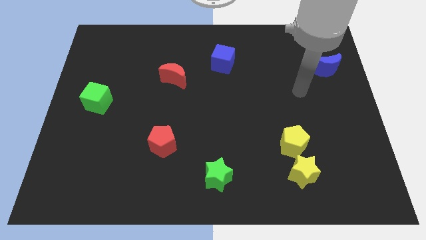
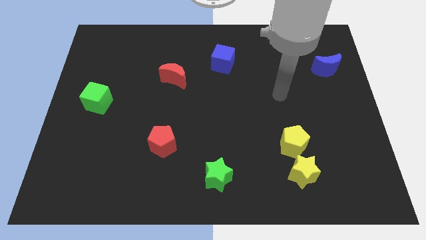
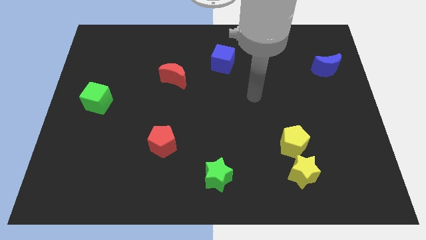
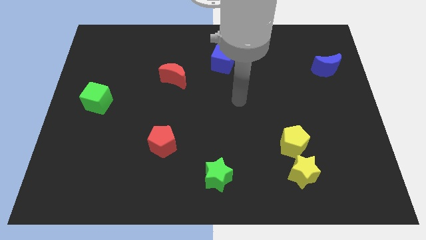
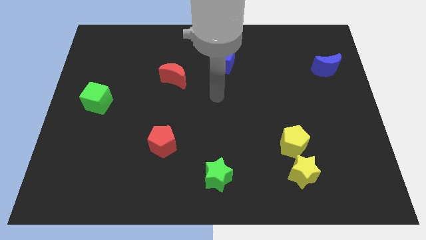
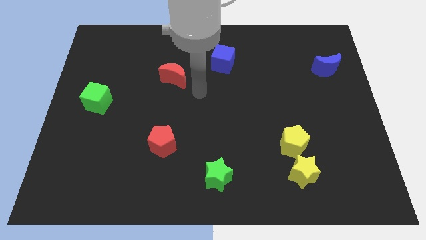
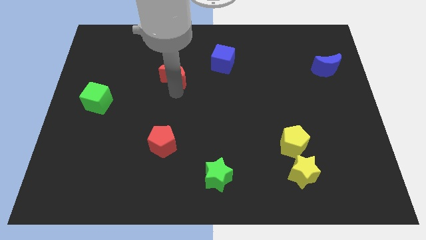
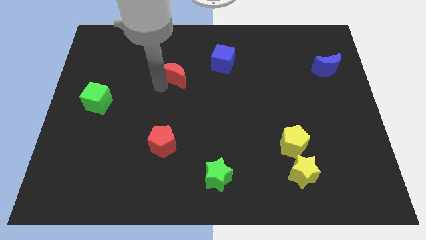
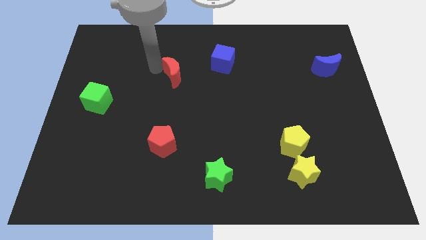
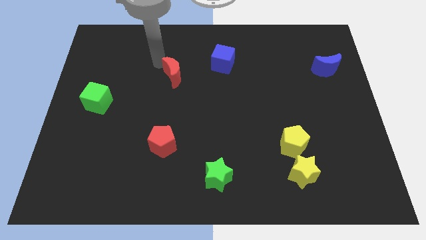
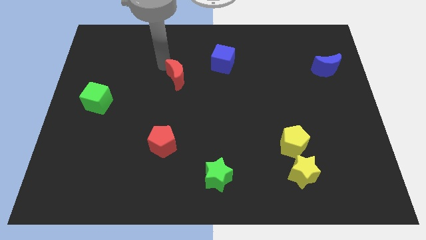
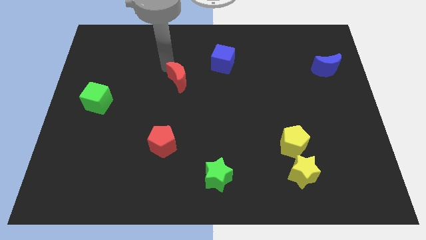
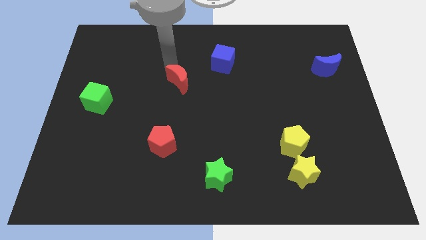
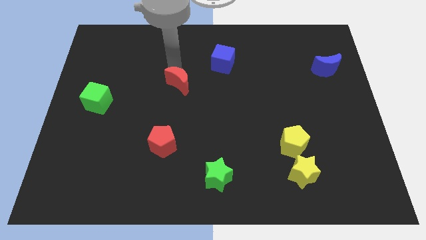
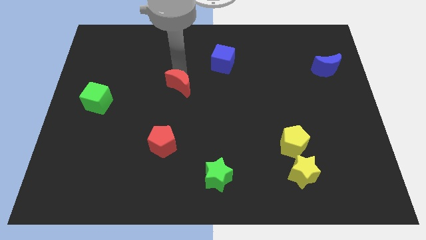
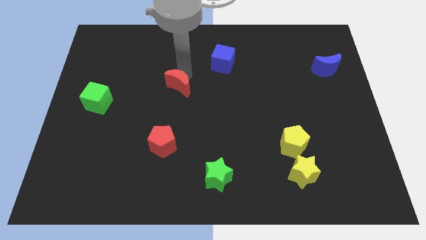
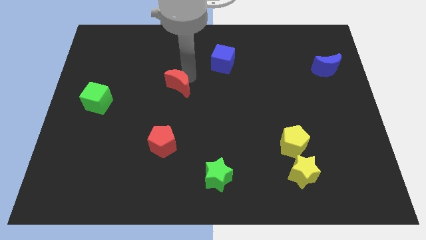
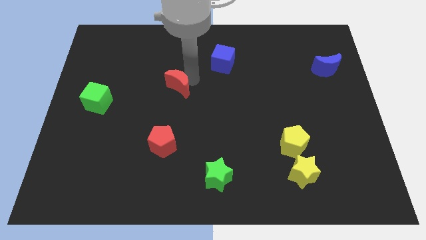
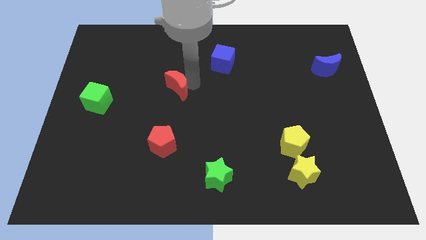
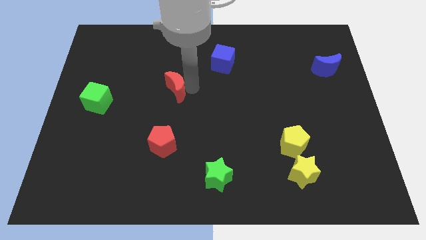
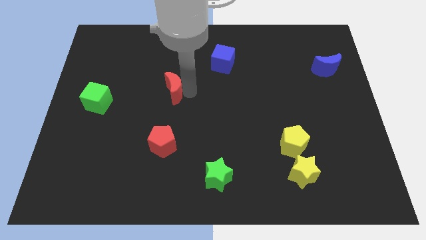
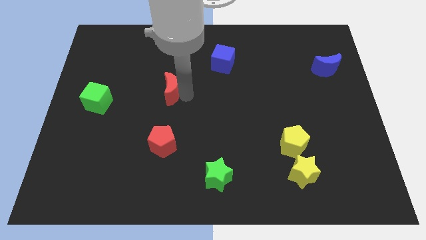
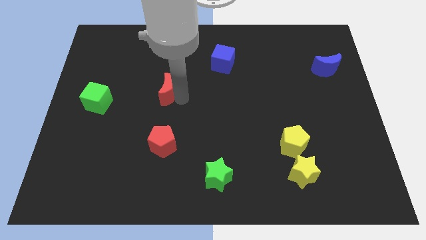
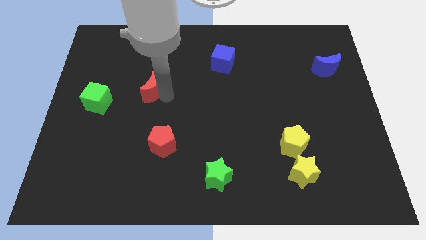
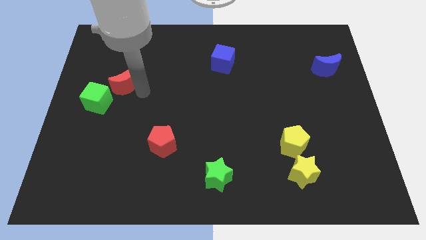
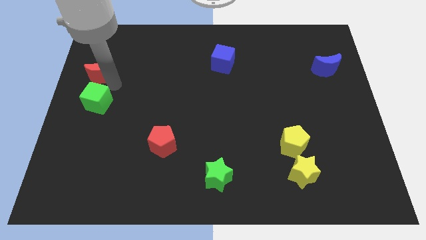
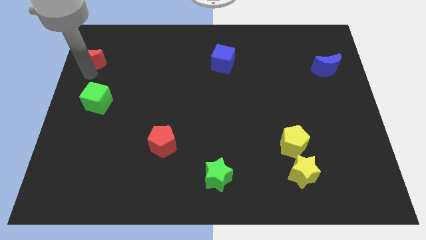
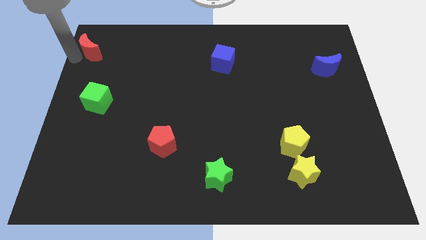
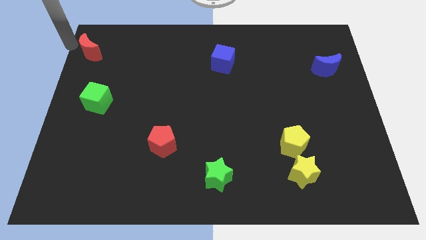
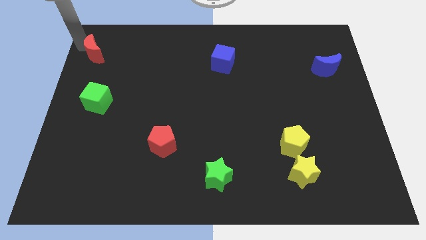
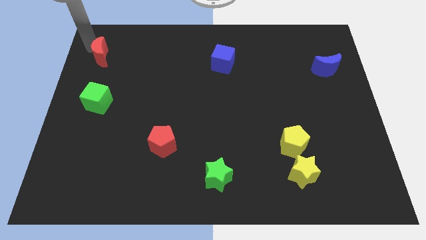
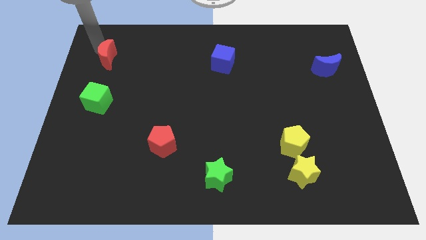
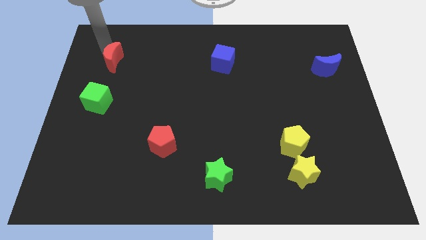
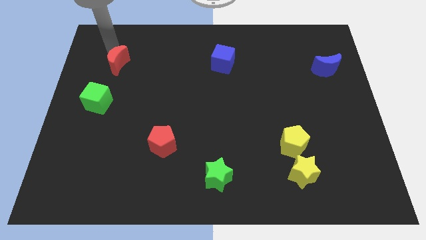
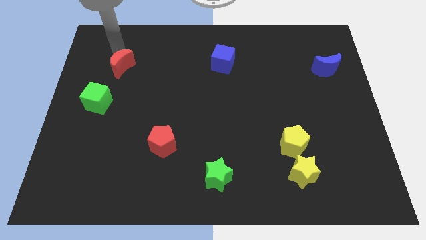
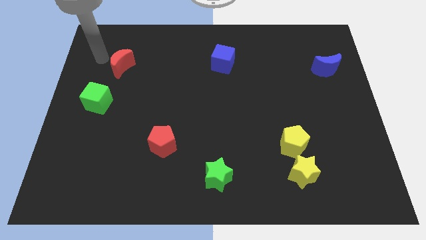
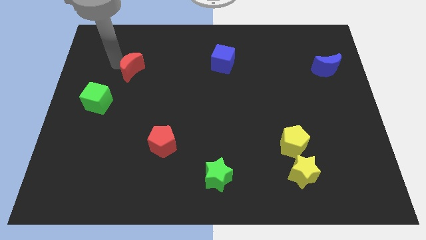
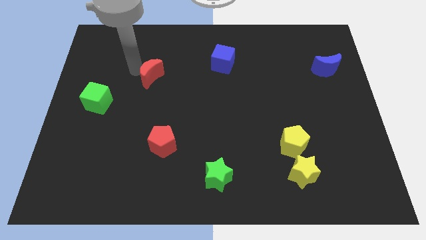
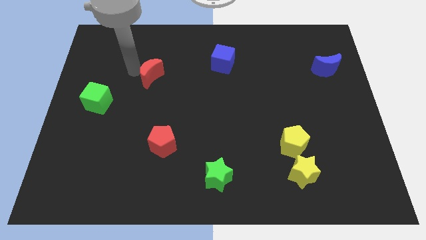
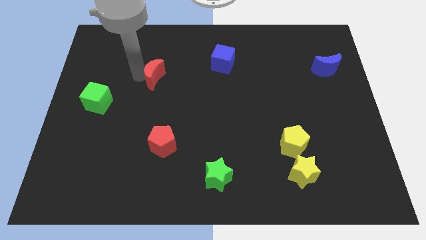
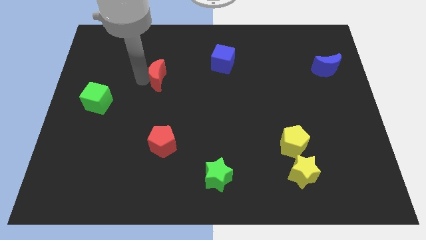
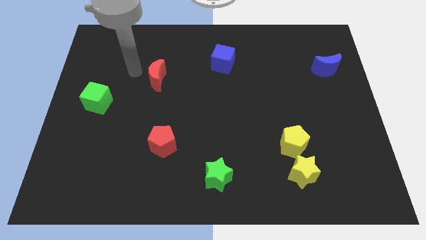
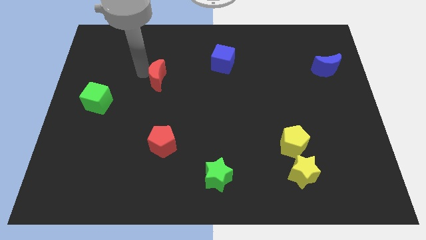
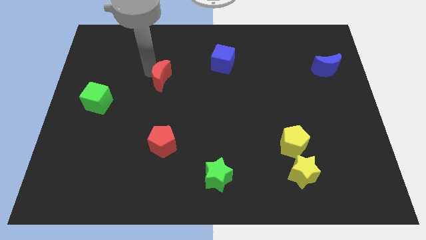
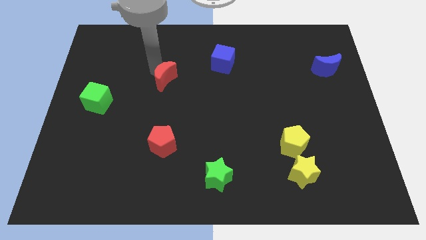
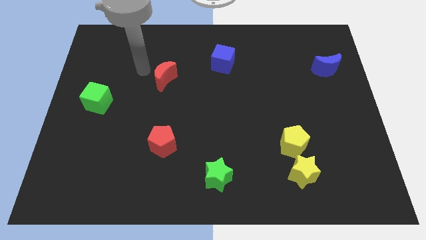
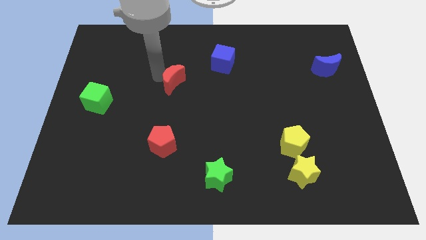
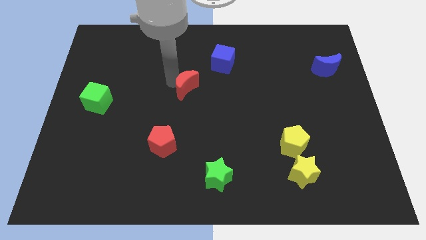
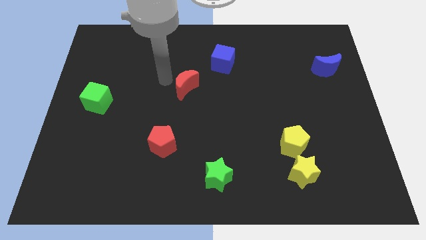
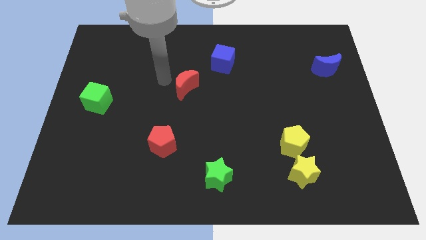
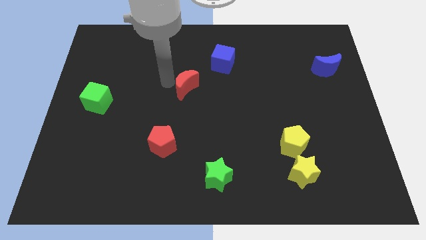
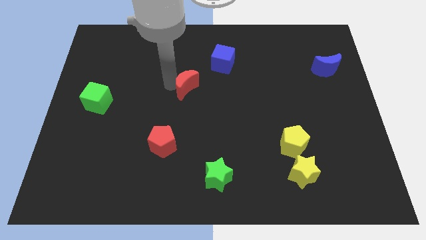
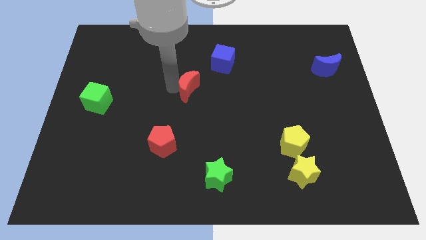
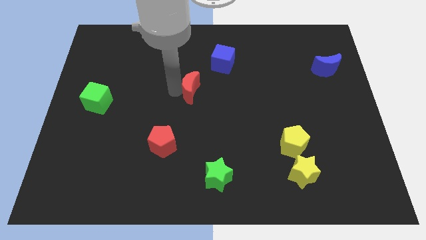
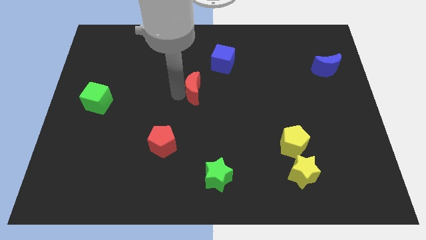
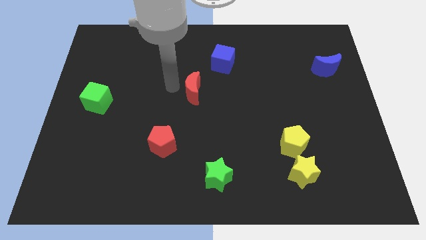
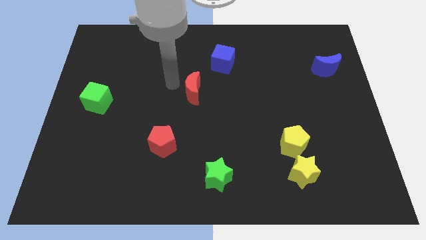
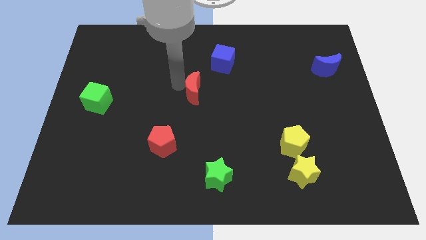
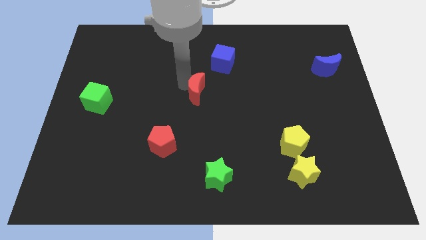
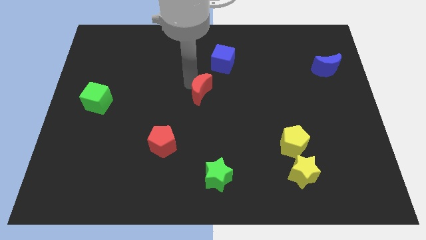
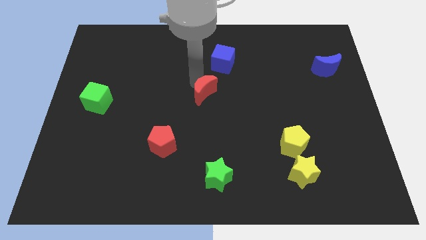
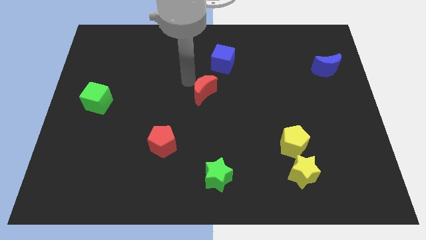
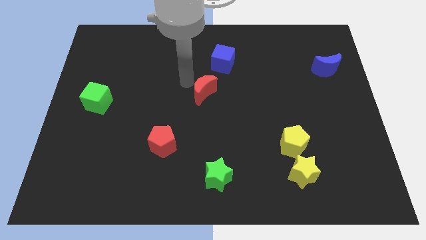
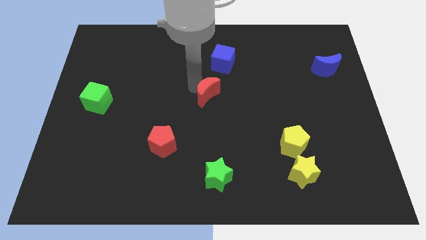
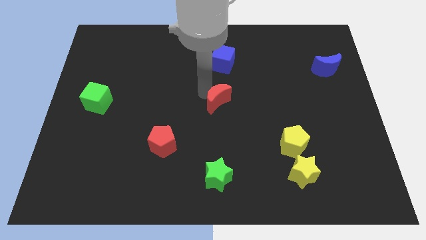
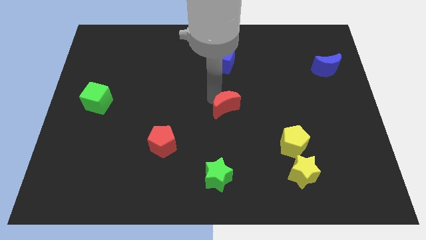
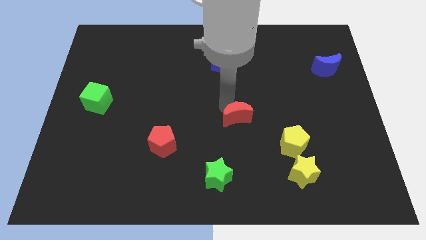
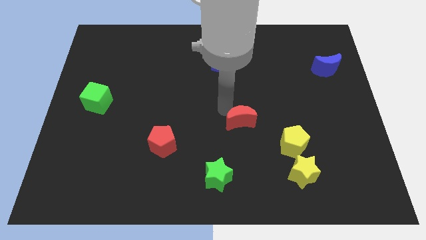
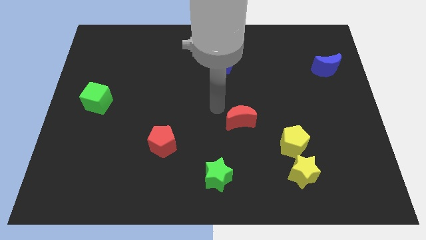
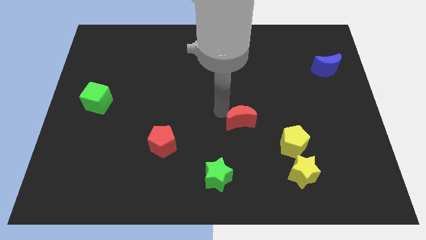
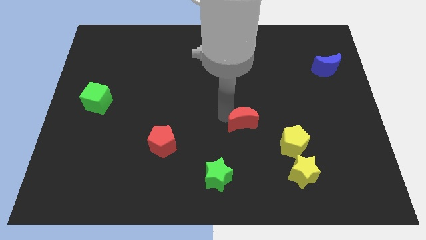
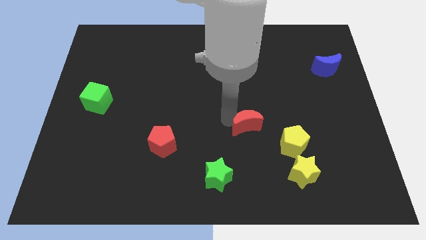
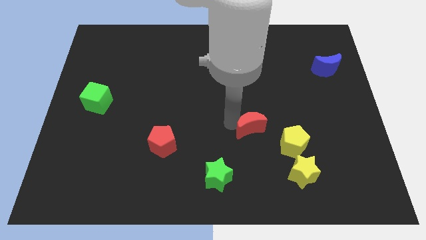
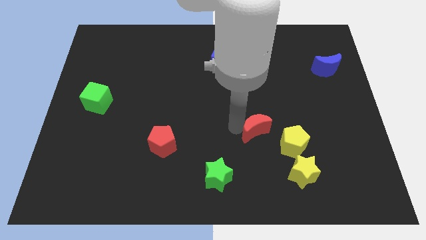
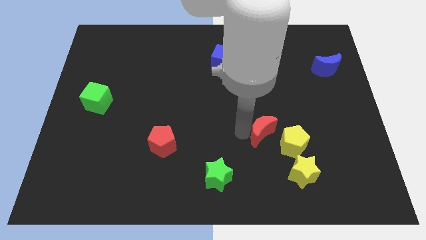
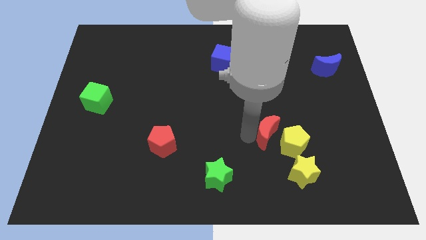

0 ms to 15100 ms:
slide the red moon close to the yellow pentagon
